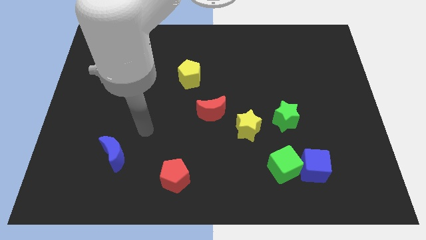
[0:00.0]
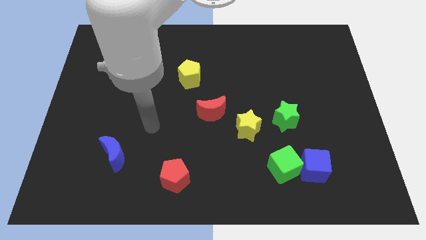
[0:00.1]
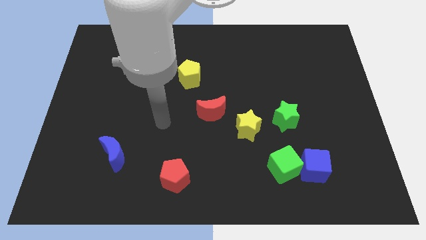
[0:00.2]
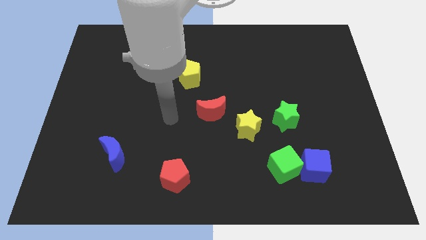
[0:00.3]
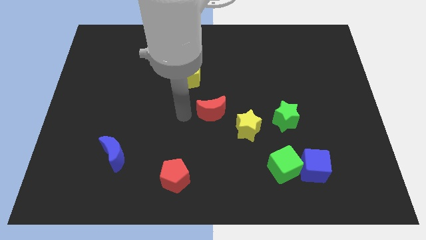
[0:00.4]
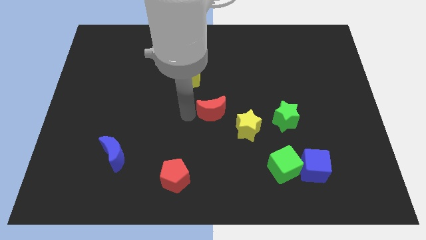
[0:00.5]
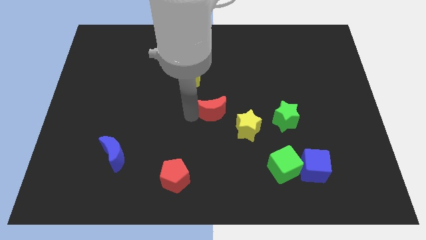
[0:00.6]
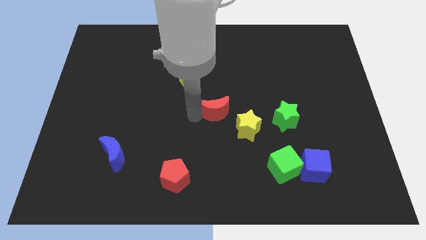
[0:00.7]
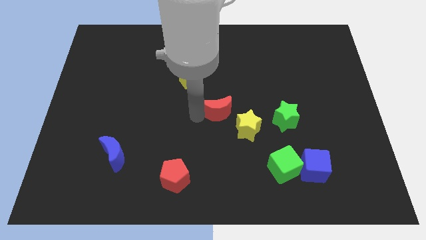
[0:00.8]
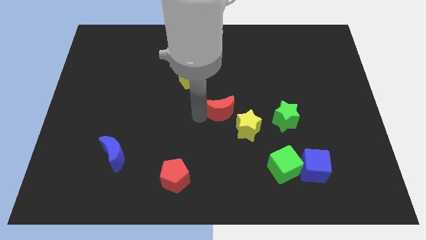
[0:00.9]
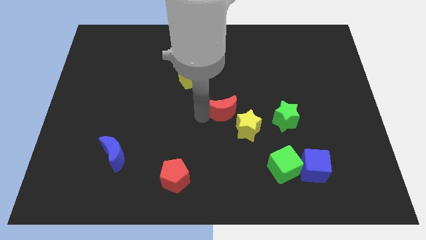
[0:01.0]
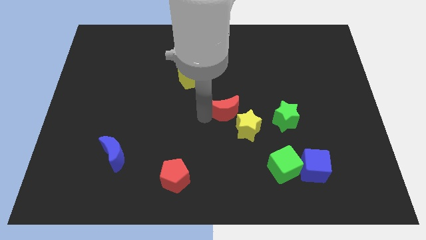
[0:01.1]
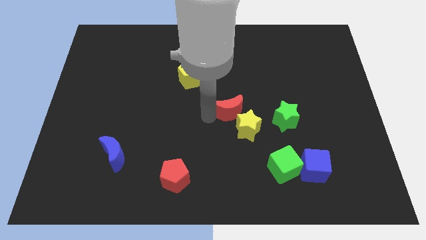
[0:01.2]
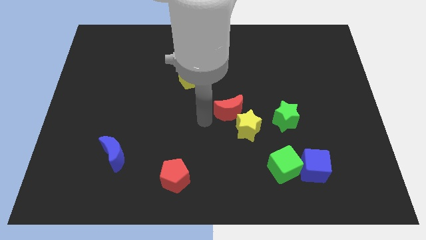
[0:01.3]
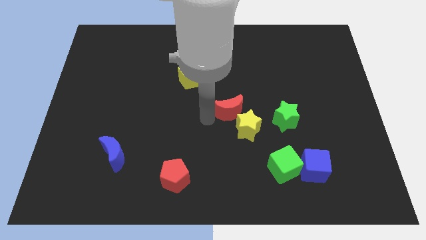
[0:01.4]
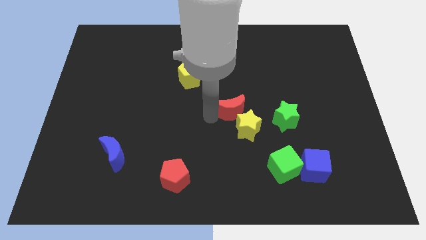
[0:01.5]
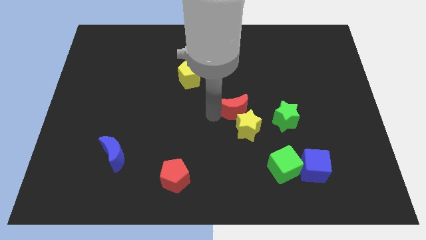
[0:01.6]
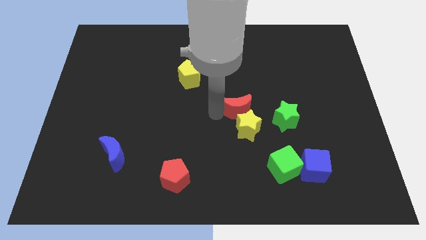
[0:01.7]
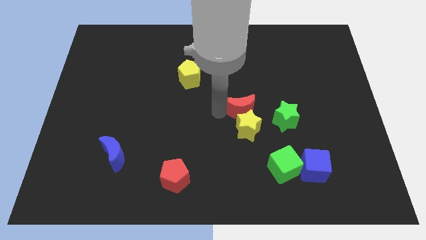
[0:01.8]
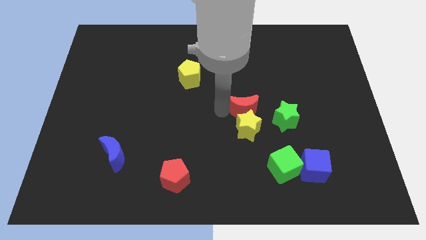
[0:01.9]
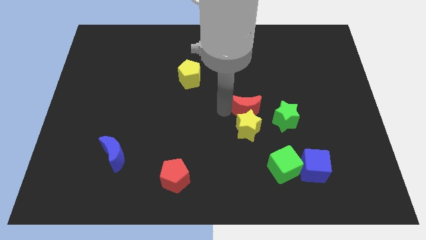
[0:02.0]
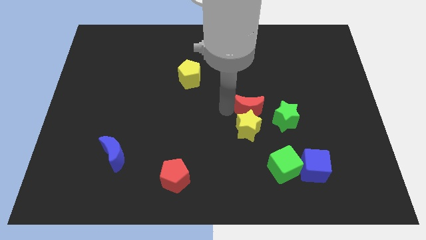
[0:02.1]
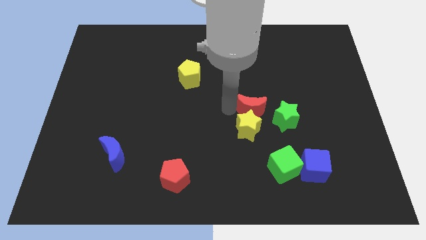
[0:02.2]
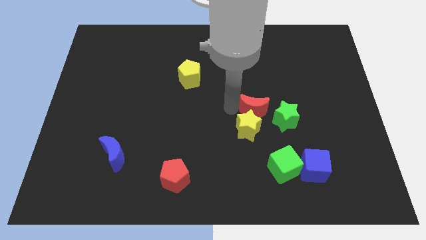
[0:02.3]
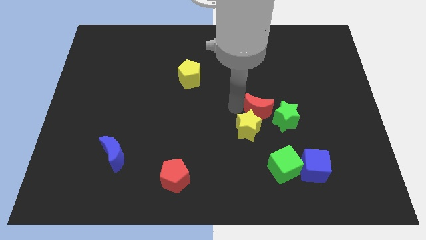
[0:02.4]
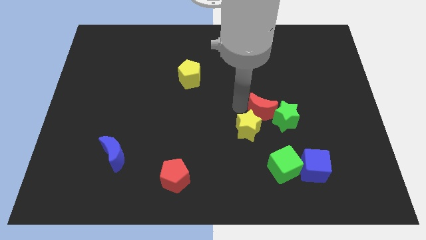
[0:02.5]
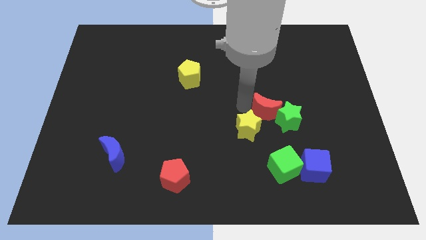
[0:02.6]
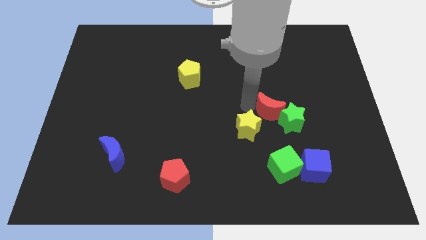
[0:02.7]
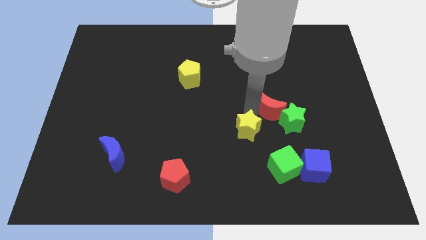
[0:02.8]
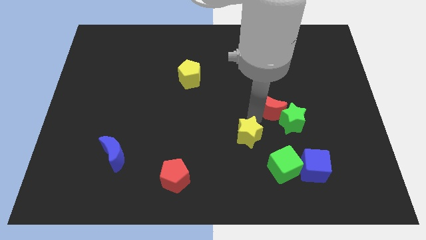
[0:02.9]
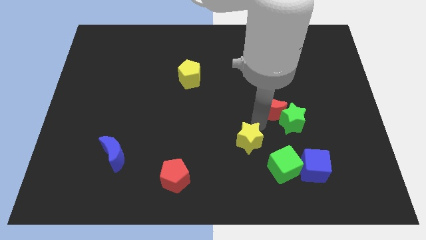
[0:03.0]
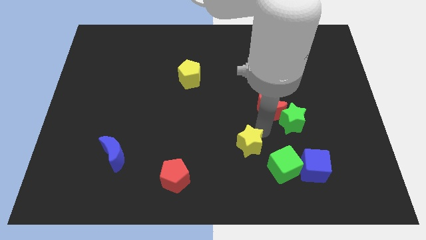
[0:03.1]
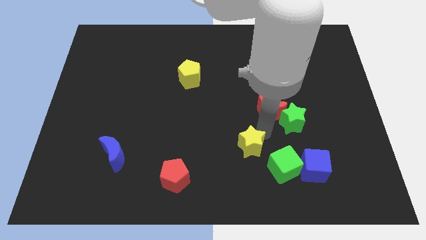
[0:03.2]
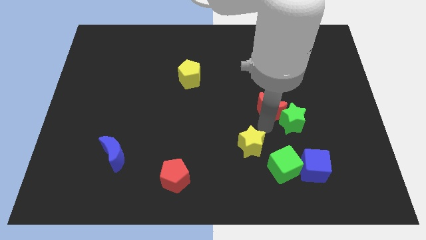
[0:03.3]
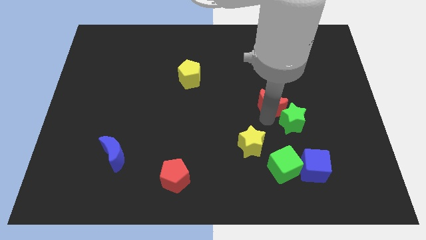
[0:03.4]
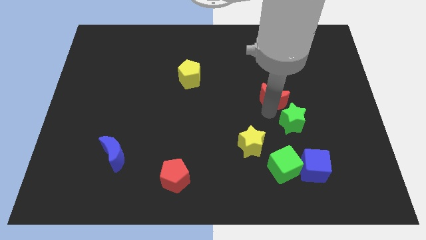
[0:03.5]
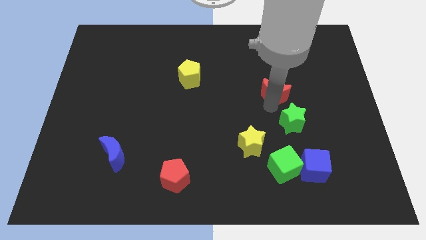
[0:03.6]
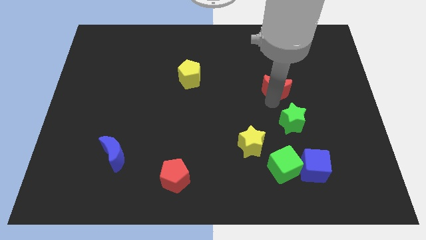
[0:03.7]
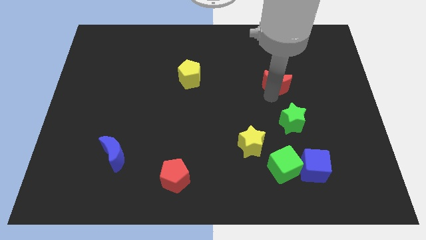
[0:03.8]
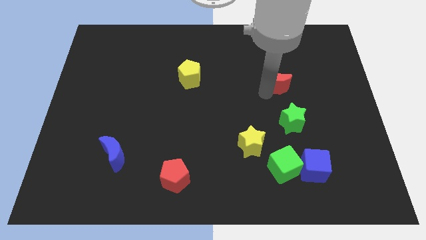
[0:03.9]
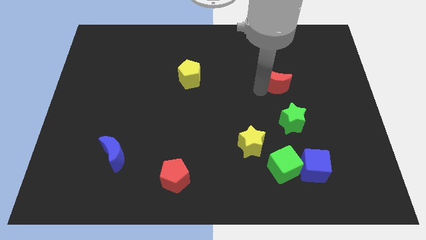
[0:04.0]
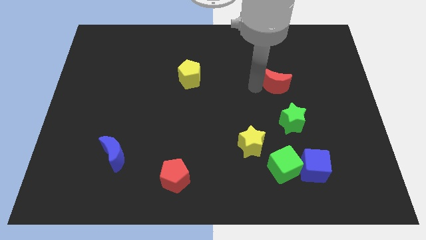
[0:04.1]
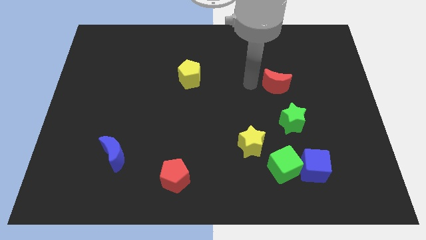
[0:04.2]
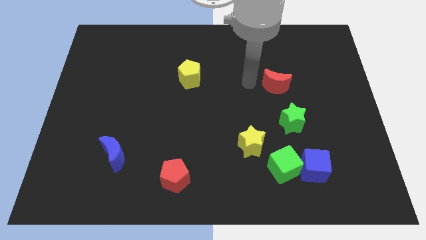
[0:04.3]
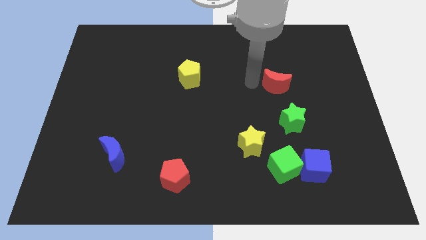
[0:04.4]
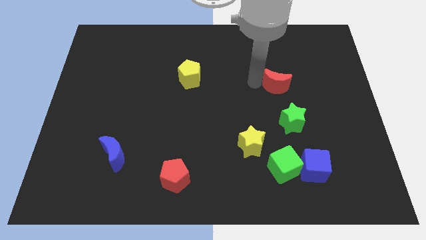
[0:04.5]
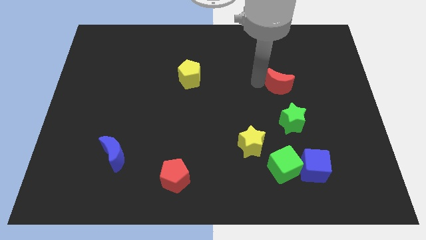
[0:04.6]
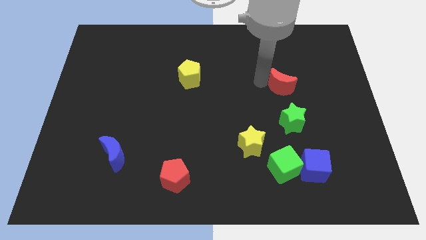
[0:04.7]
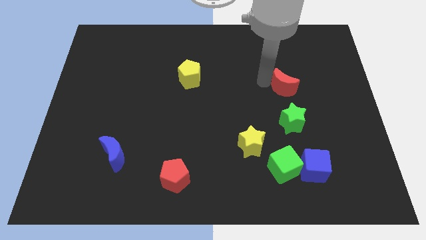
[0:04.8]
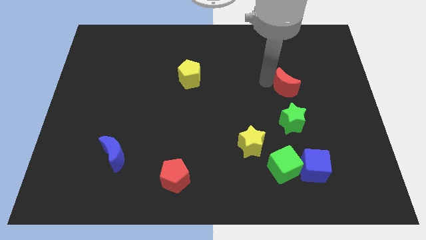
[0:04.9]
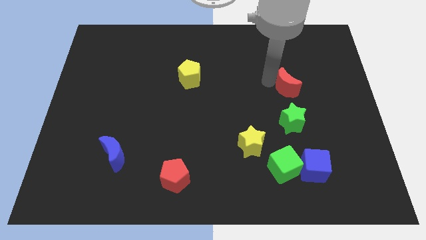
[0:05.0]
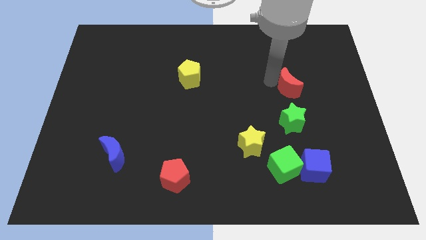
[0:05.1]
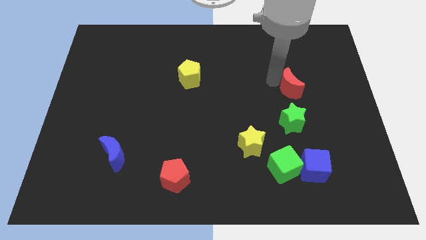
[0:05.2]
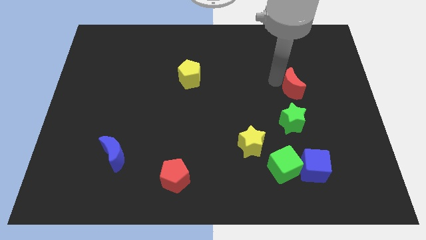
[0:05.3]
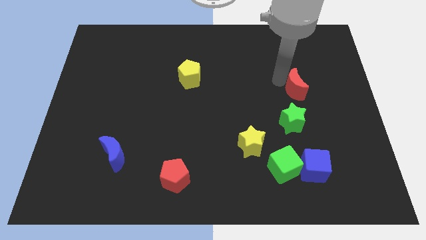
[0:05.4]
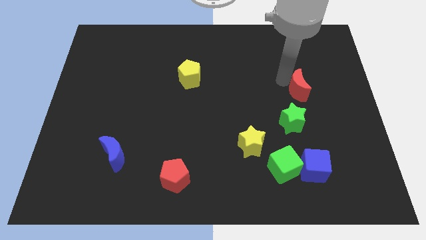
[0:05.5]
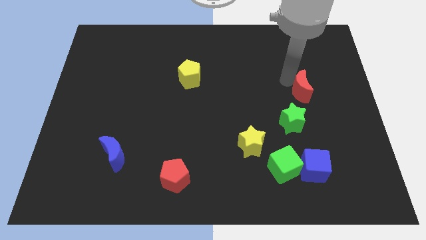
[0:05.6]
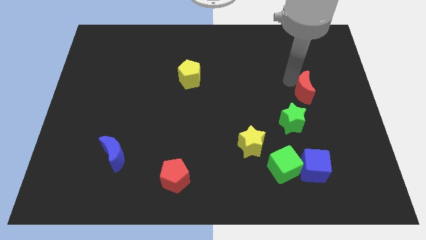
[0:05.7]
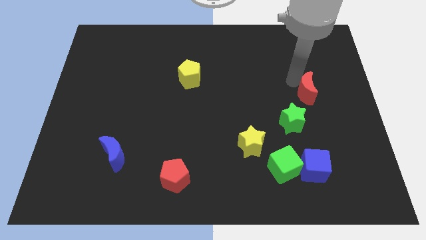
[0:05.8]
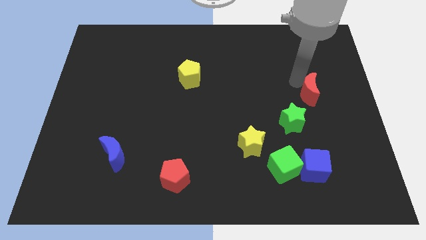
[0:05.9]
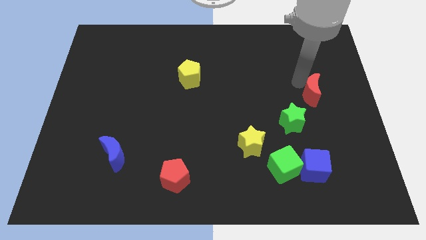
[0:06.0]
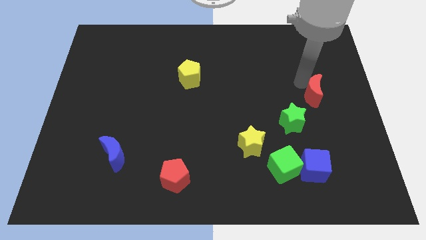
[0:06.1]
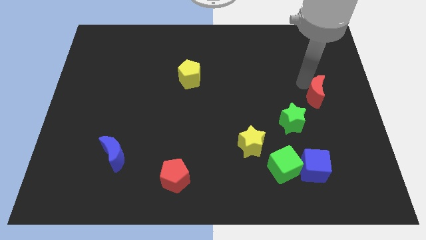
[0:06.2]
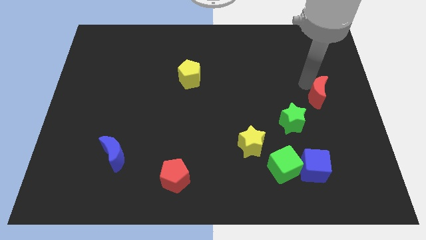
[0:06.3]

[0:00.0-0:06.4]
put the red moon to the center right
